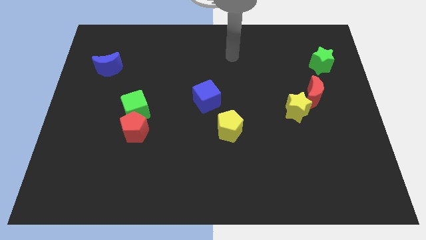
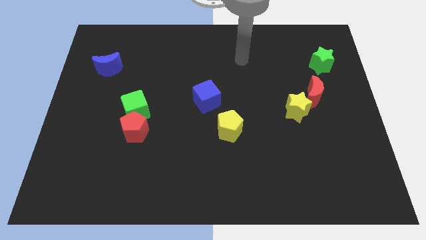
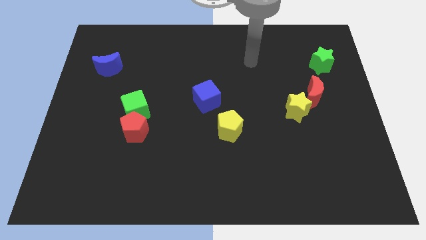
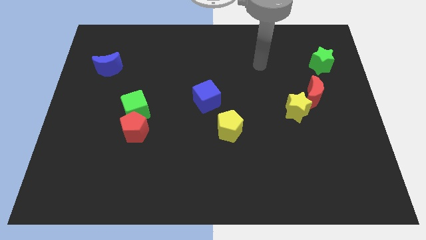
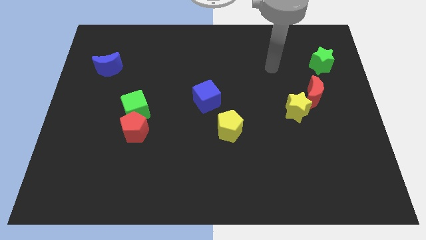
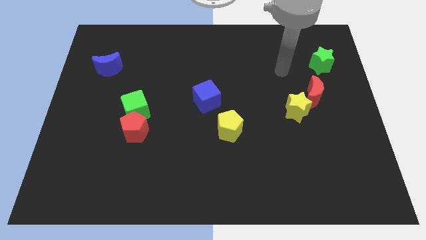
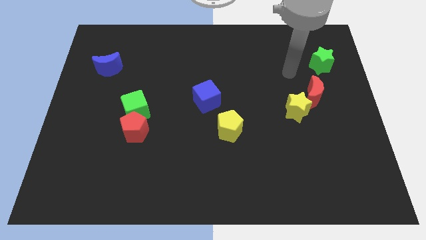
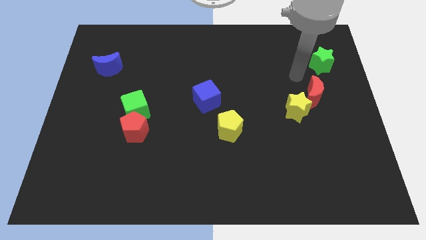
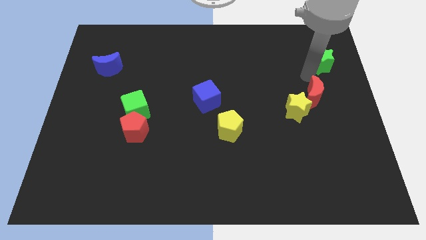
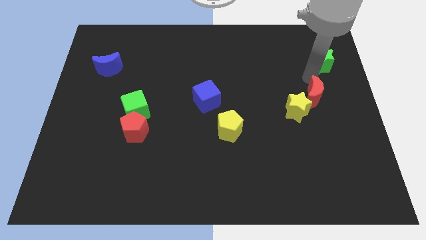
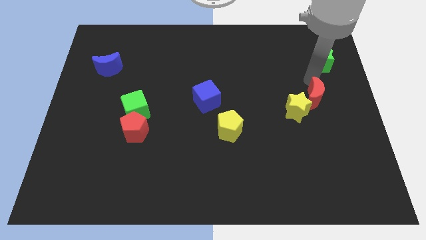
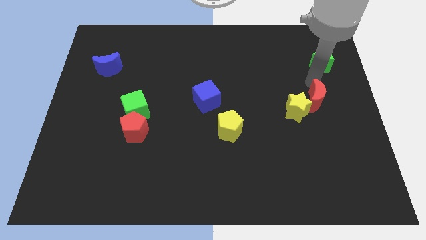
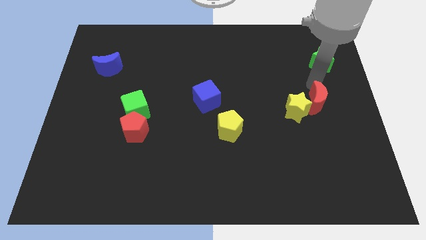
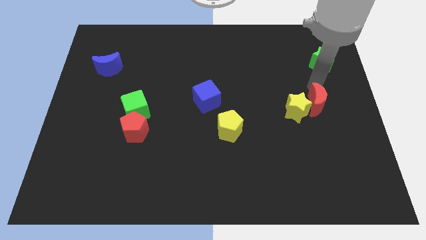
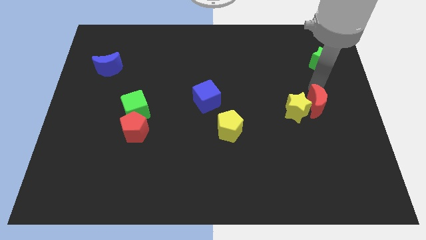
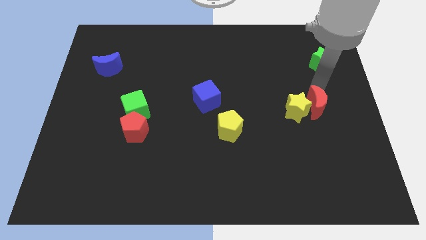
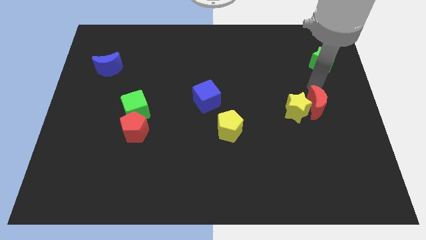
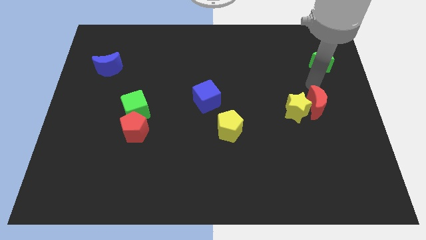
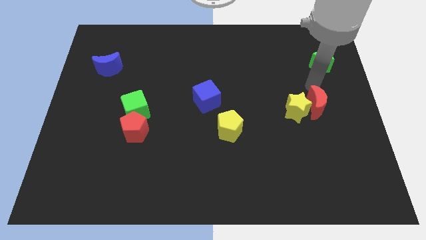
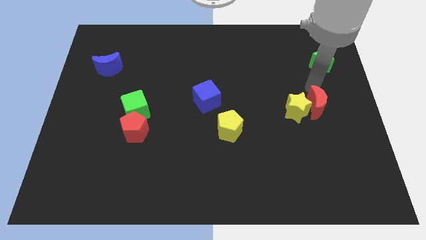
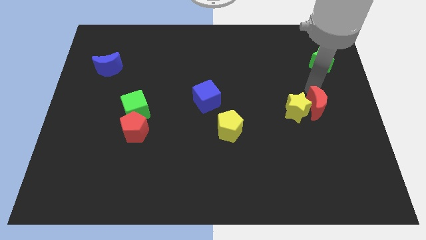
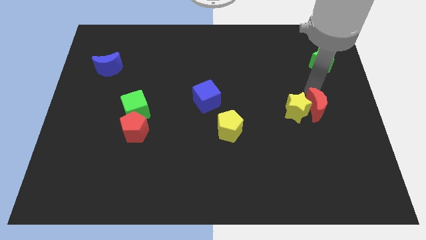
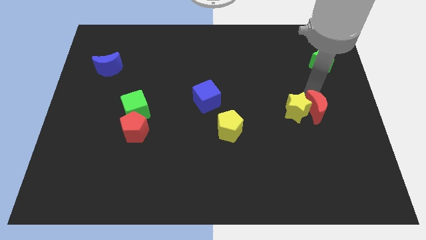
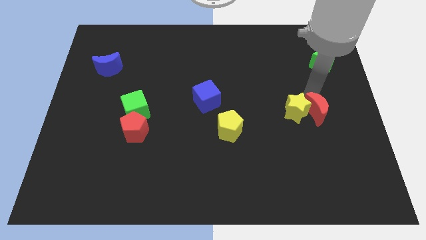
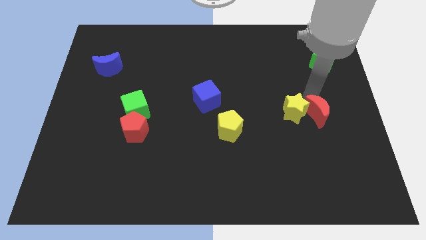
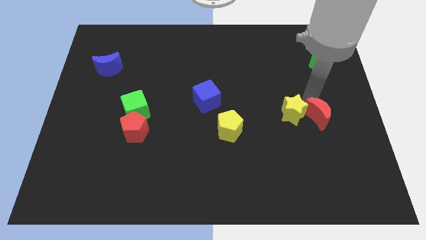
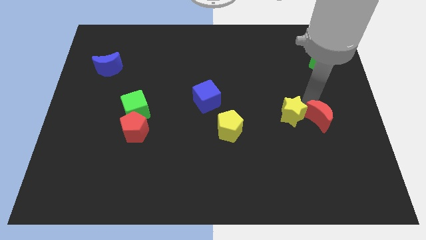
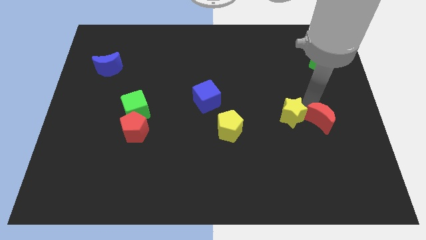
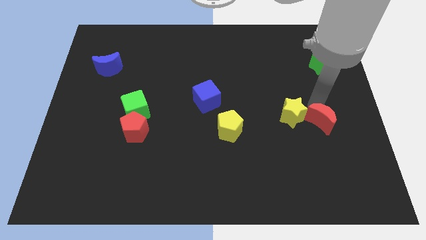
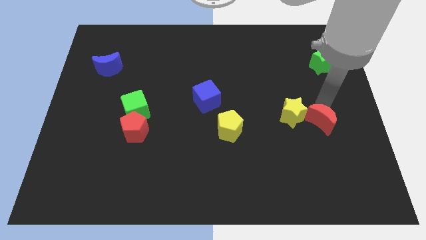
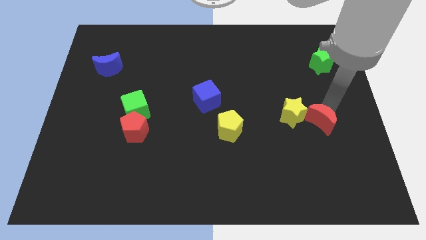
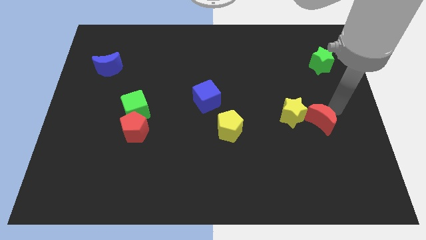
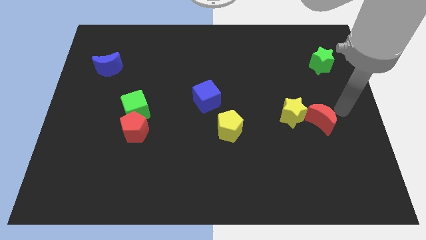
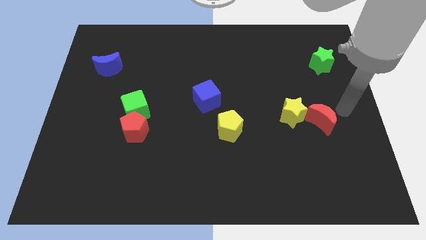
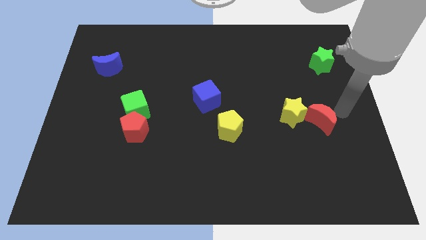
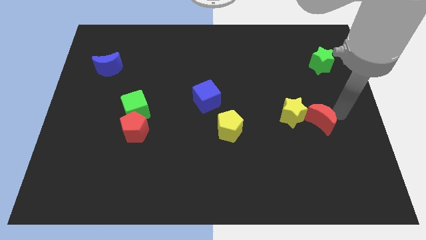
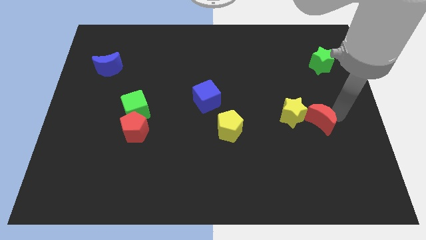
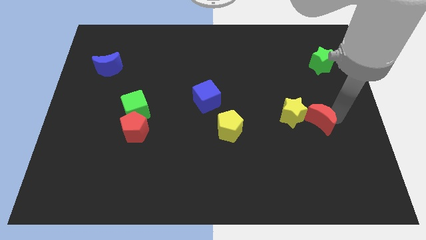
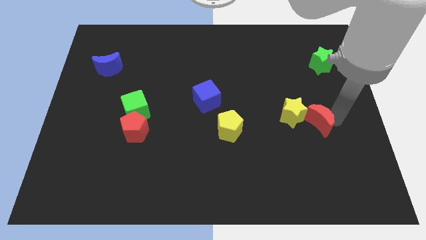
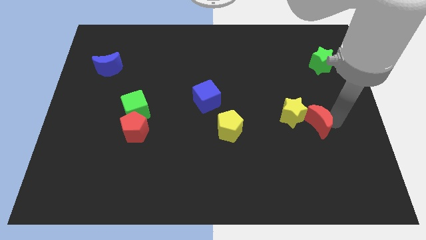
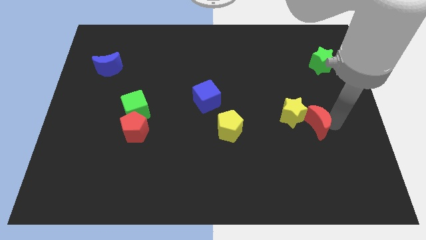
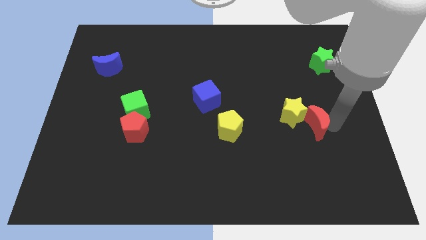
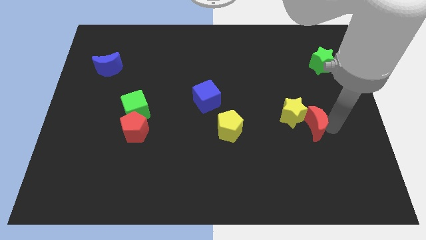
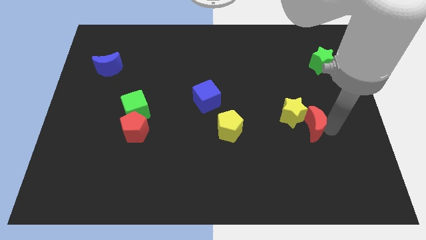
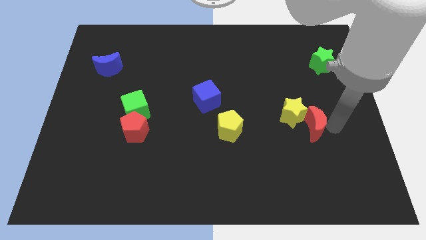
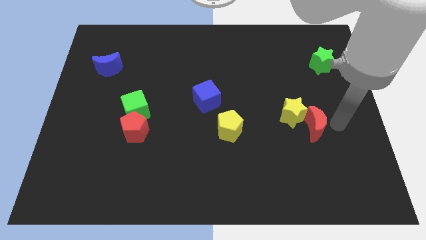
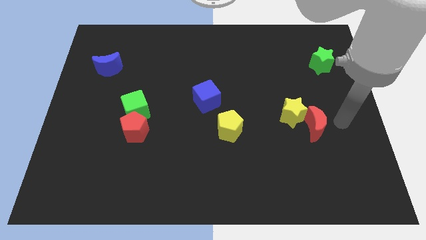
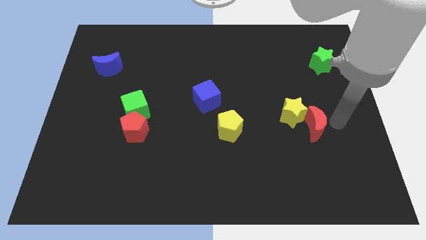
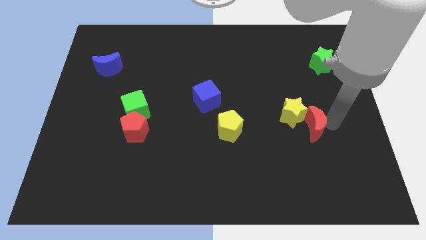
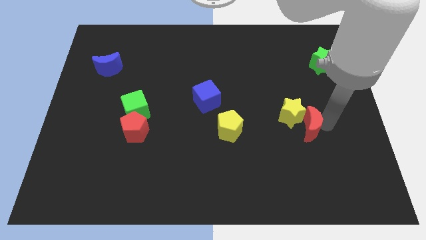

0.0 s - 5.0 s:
move the red moon a little bit diagonally down and to the left

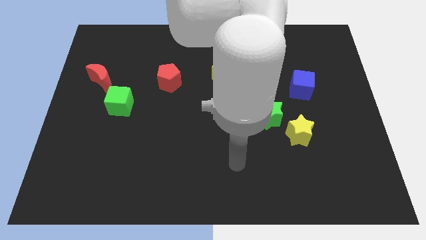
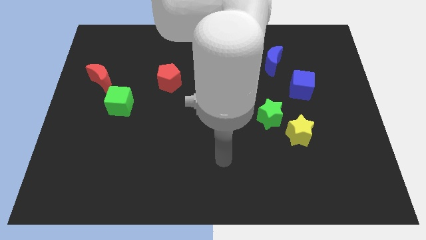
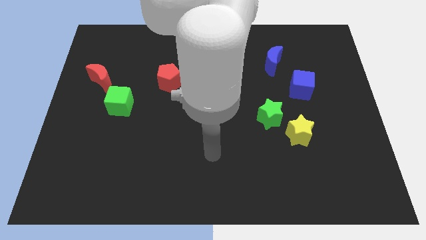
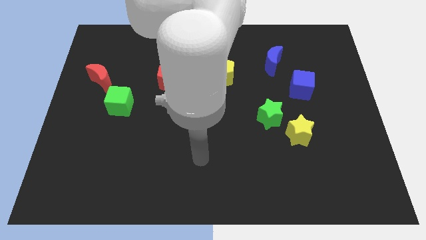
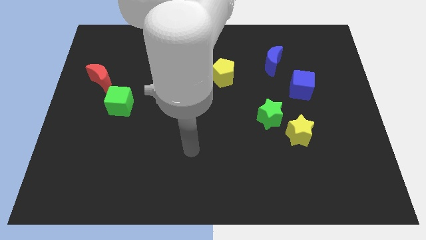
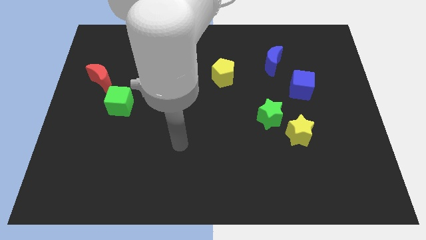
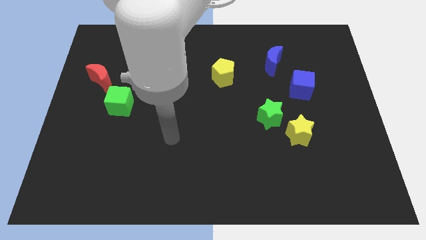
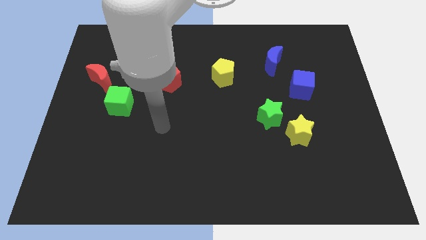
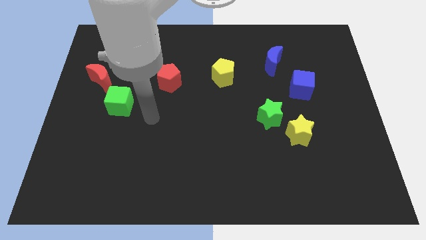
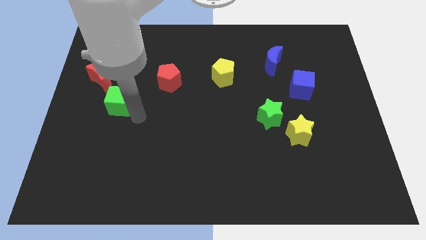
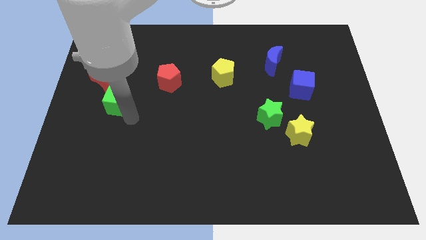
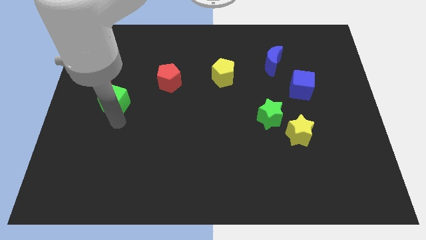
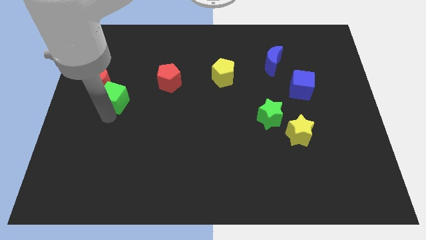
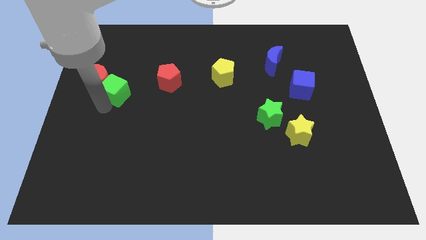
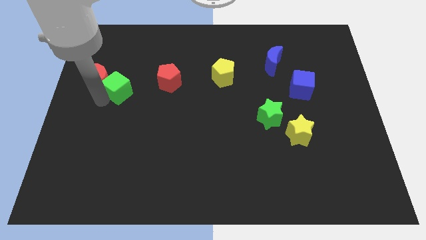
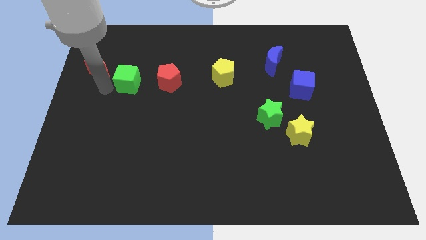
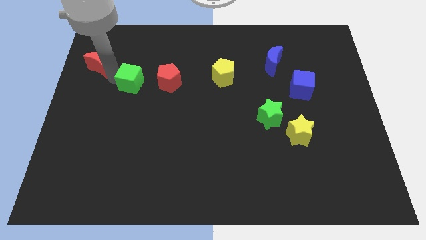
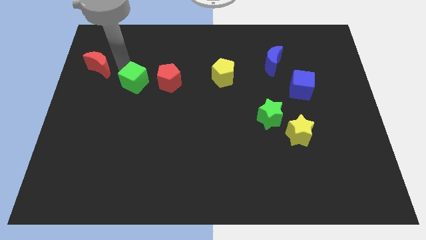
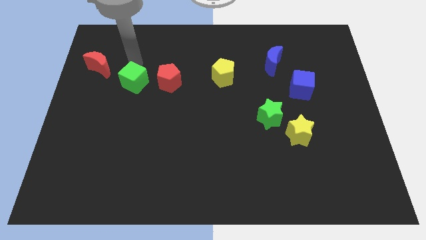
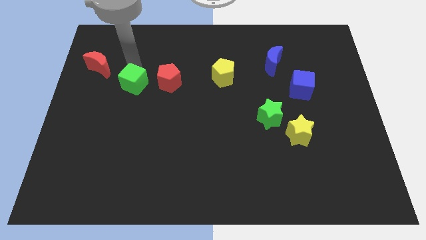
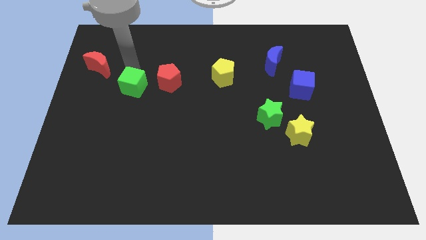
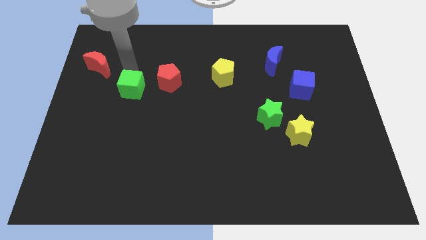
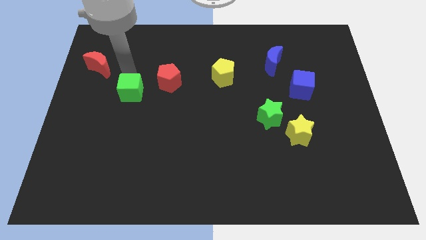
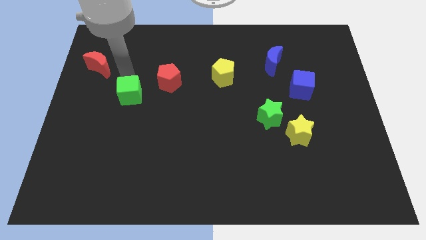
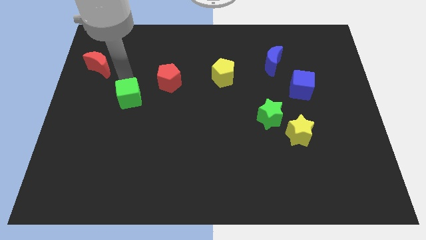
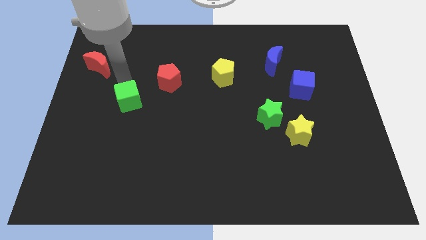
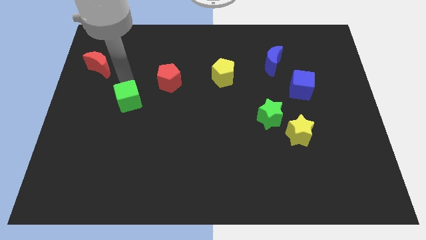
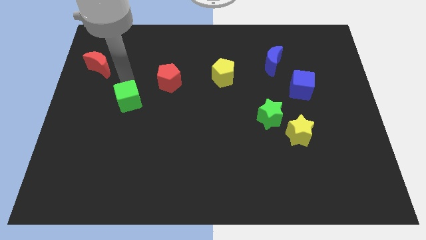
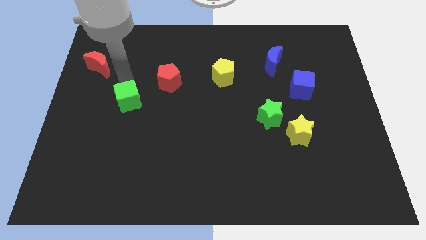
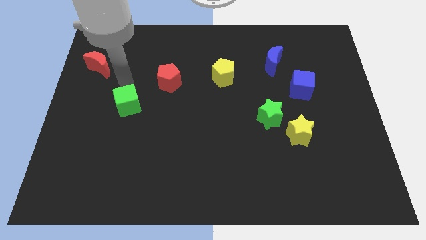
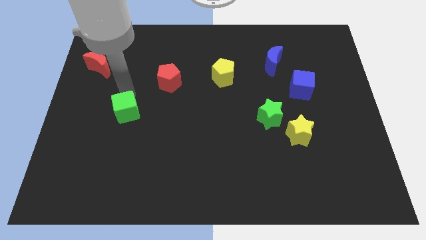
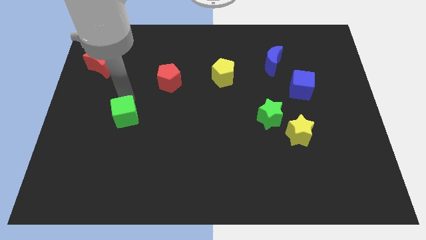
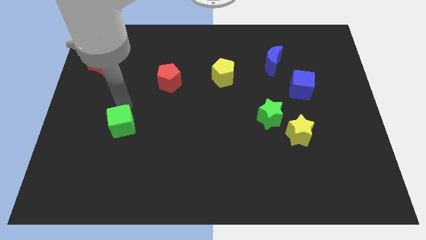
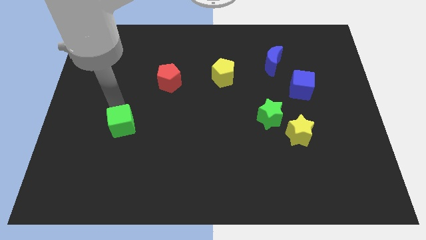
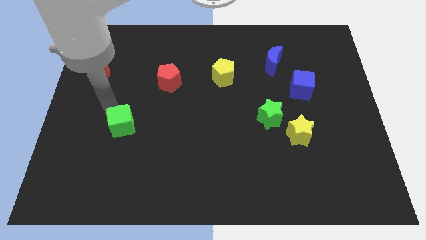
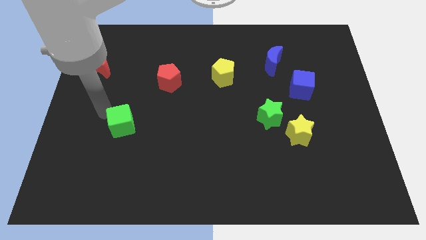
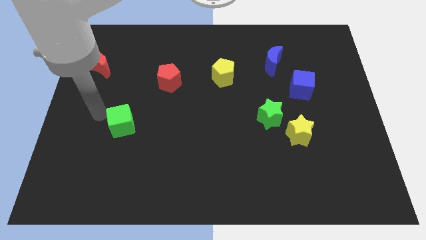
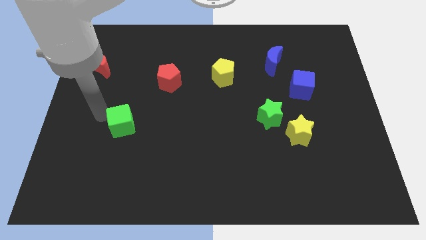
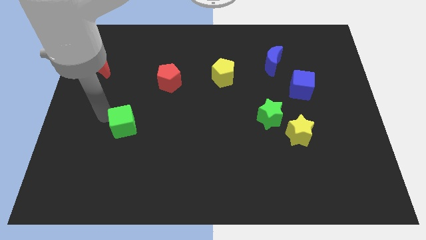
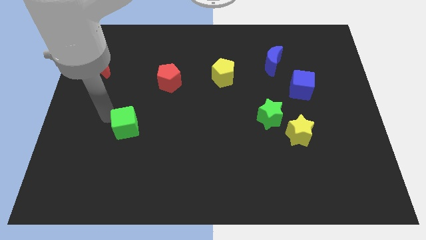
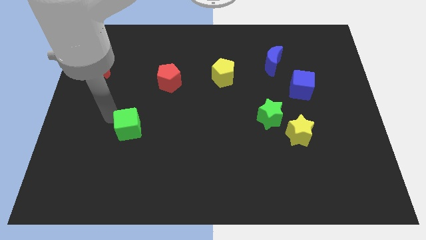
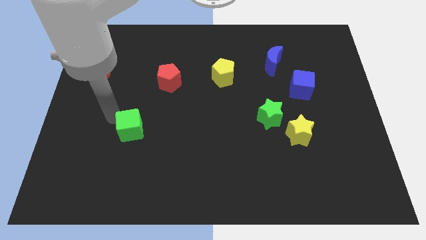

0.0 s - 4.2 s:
slide the green cube downwards and right diagonally somewhat
